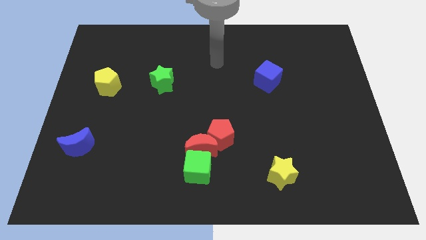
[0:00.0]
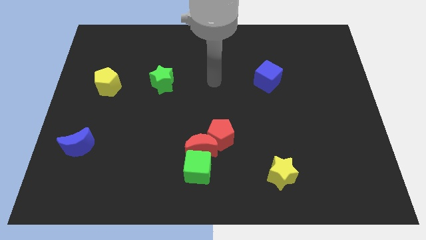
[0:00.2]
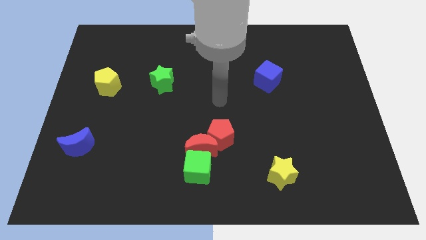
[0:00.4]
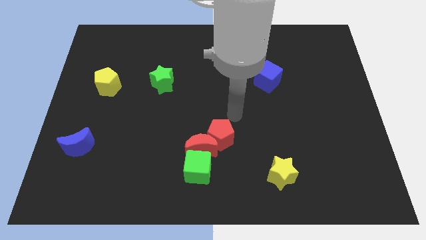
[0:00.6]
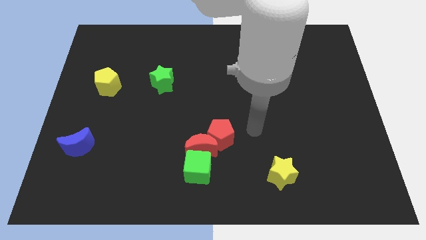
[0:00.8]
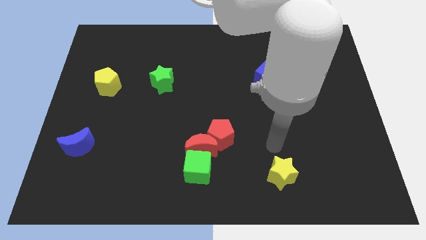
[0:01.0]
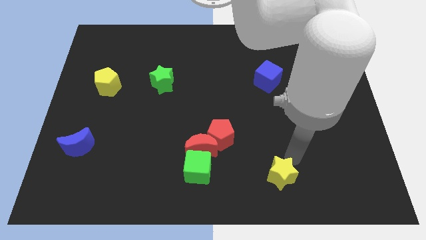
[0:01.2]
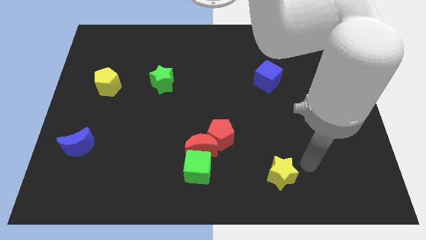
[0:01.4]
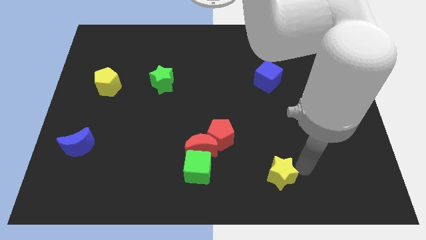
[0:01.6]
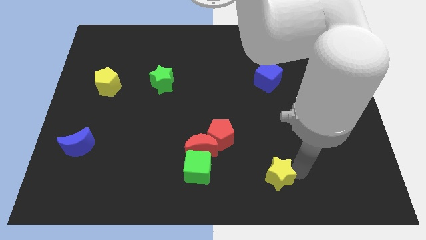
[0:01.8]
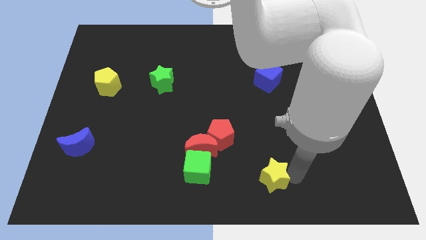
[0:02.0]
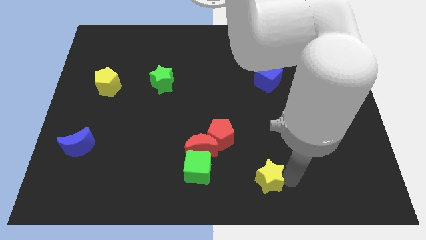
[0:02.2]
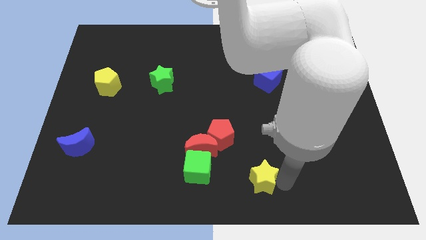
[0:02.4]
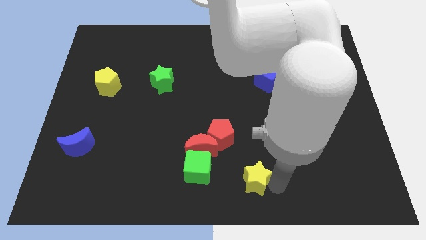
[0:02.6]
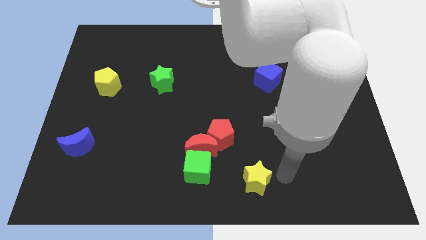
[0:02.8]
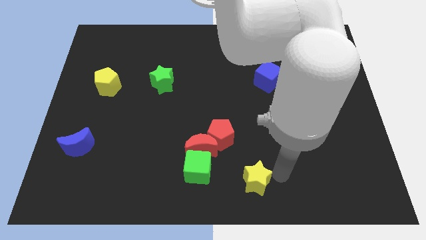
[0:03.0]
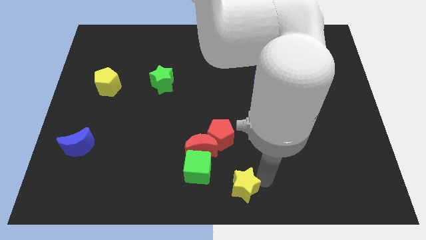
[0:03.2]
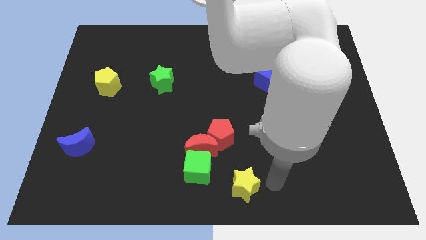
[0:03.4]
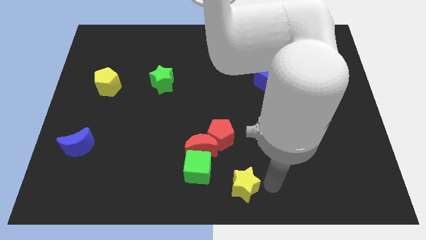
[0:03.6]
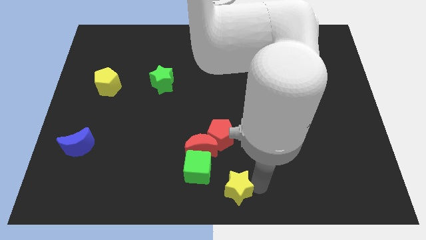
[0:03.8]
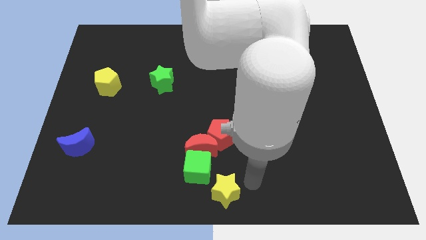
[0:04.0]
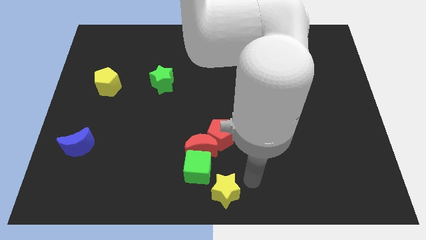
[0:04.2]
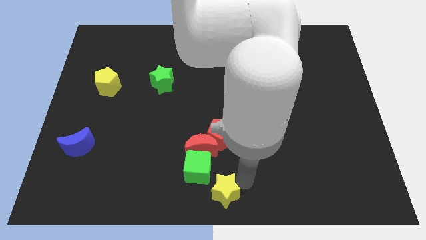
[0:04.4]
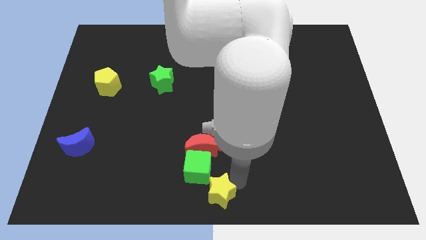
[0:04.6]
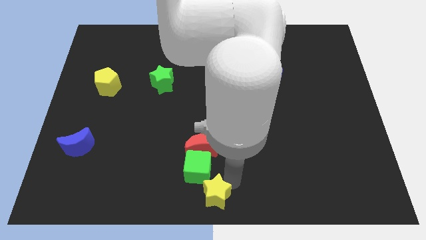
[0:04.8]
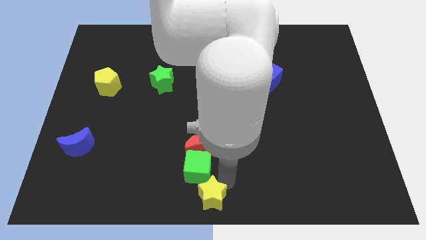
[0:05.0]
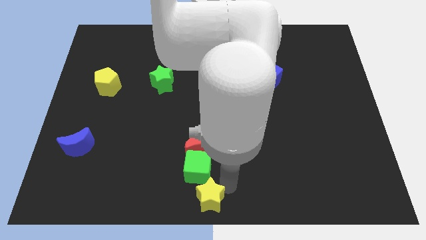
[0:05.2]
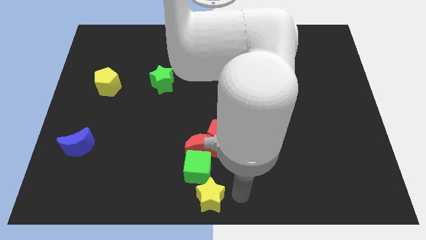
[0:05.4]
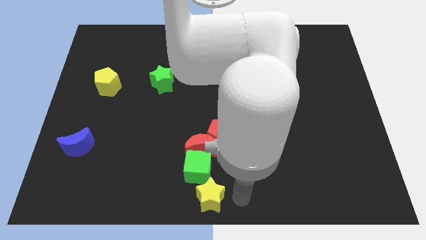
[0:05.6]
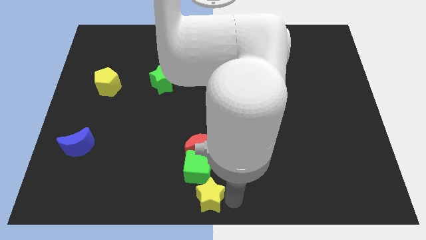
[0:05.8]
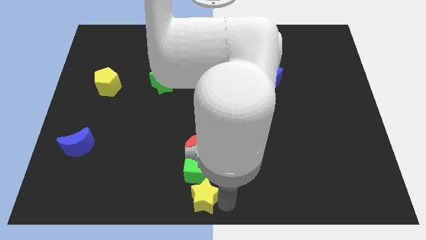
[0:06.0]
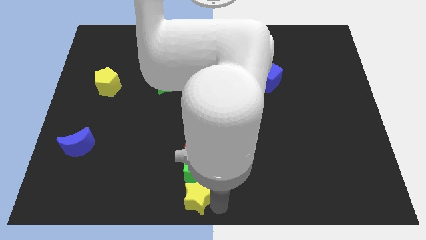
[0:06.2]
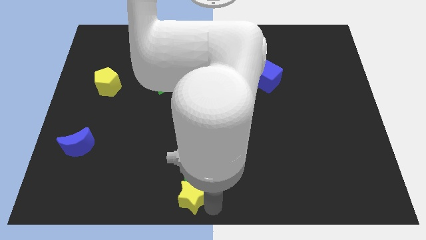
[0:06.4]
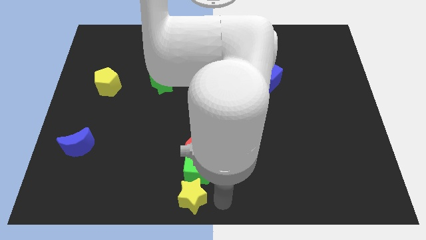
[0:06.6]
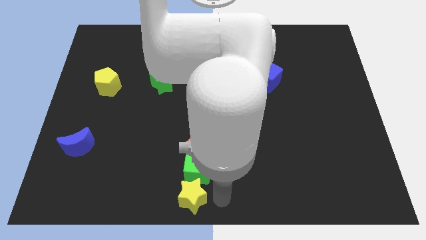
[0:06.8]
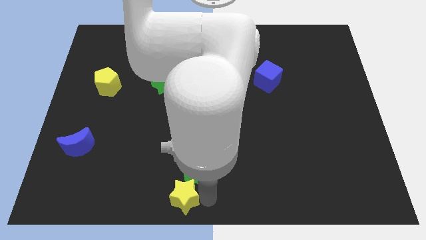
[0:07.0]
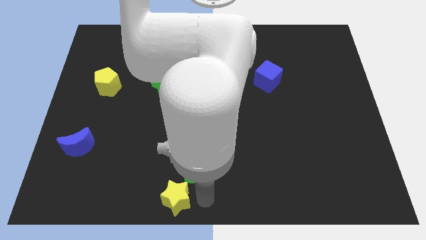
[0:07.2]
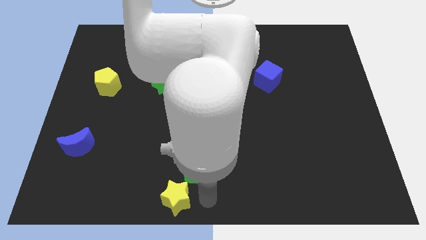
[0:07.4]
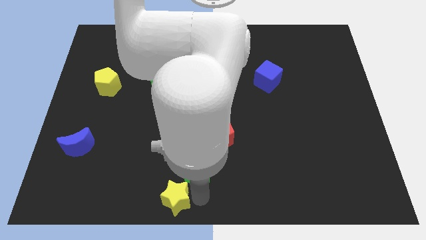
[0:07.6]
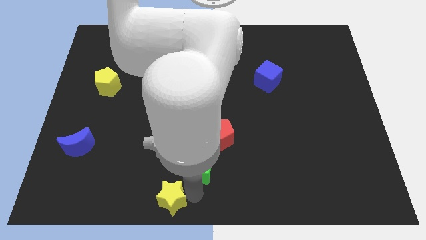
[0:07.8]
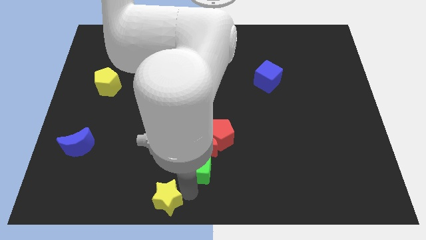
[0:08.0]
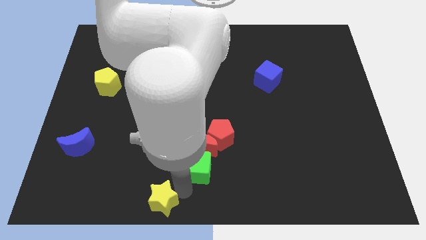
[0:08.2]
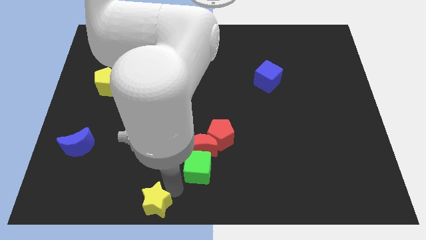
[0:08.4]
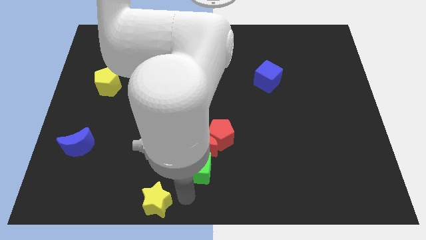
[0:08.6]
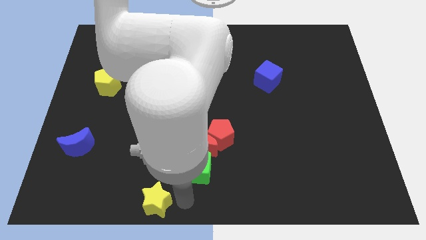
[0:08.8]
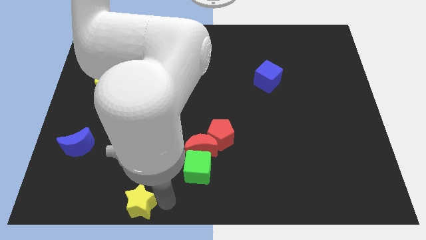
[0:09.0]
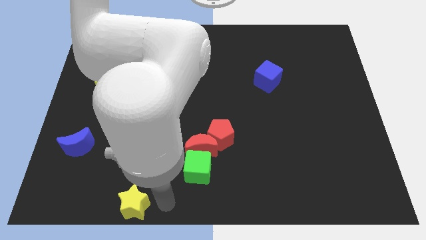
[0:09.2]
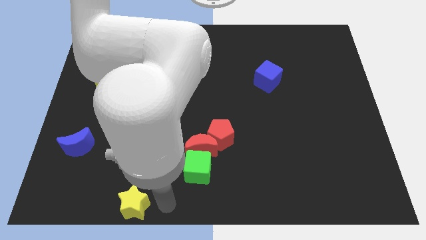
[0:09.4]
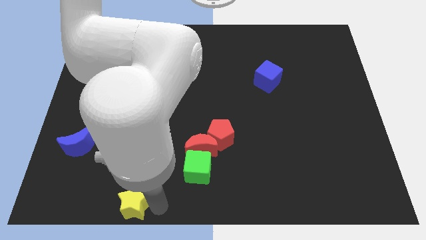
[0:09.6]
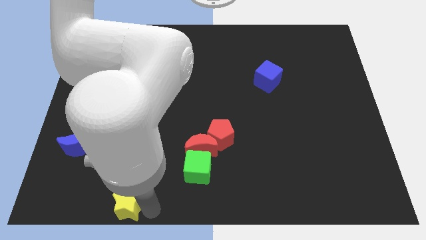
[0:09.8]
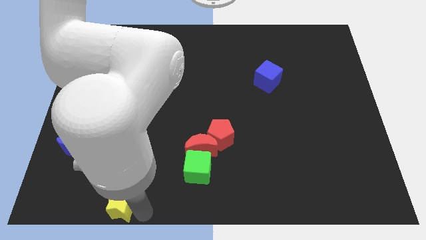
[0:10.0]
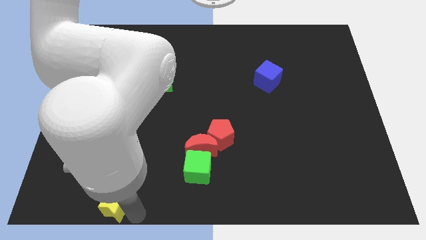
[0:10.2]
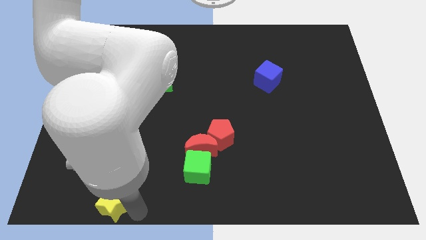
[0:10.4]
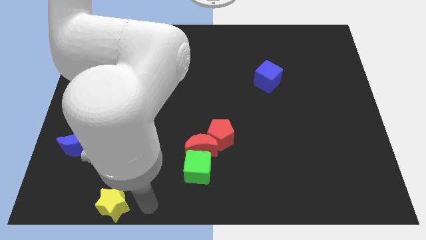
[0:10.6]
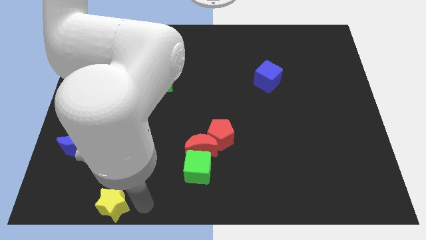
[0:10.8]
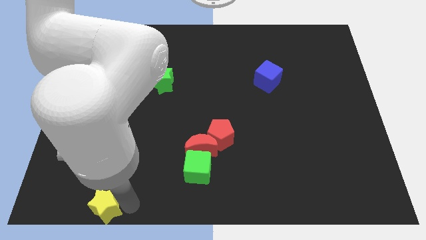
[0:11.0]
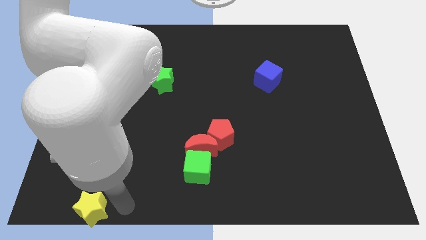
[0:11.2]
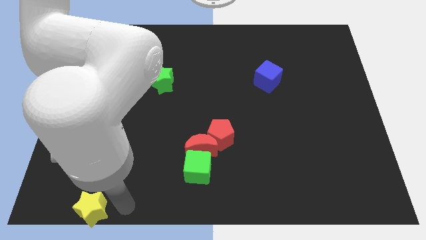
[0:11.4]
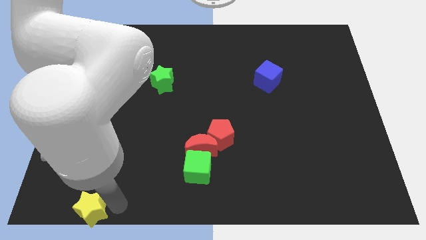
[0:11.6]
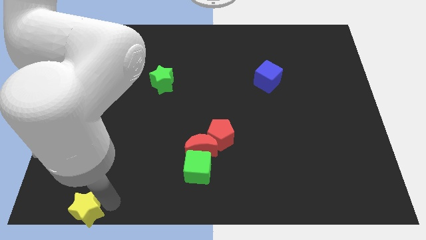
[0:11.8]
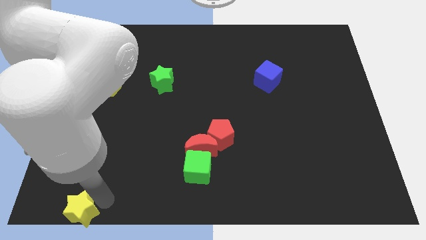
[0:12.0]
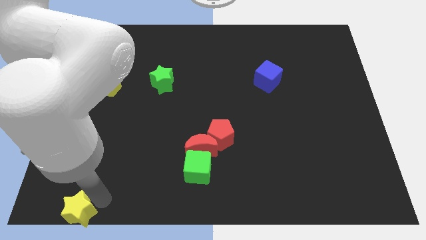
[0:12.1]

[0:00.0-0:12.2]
slide the yellow star to the bottom left corner

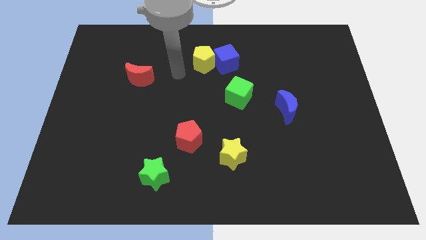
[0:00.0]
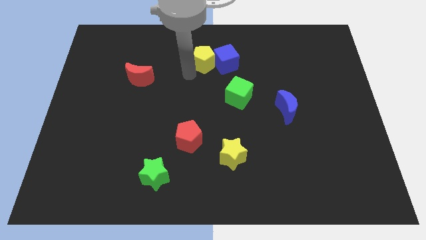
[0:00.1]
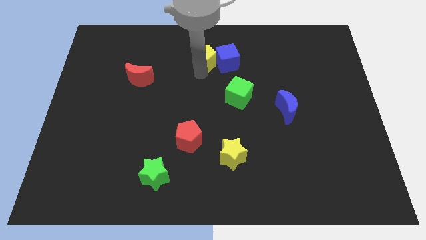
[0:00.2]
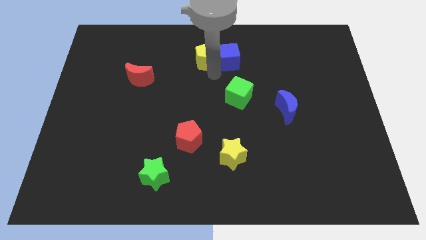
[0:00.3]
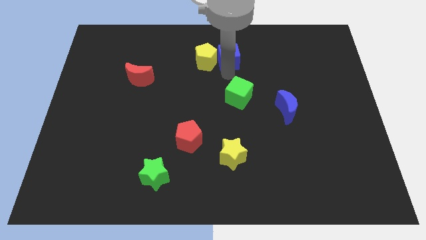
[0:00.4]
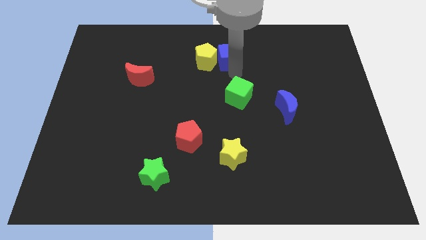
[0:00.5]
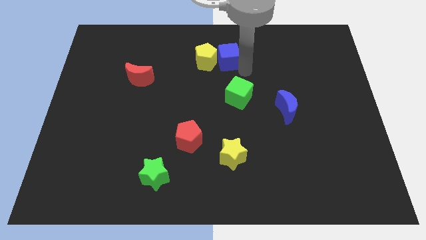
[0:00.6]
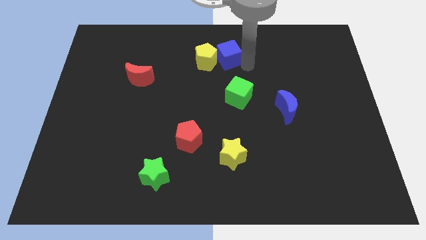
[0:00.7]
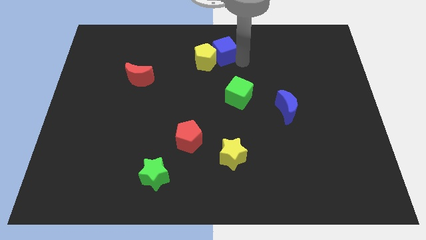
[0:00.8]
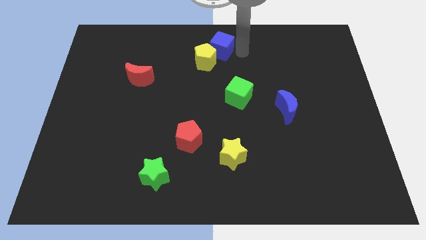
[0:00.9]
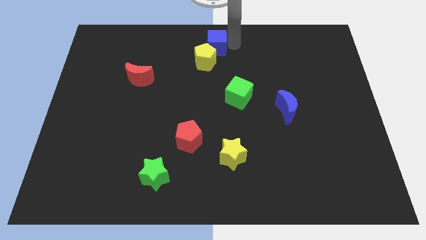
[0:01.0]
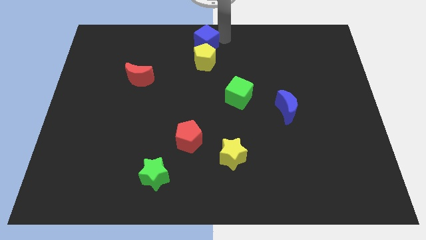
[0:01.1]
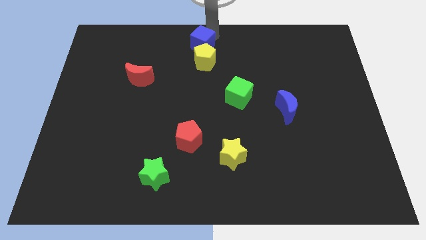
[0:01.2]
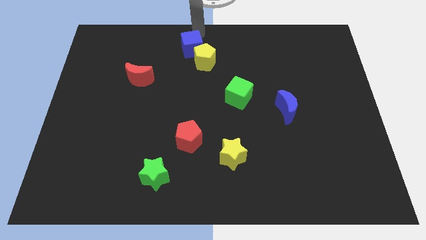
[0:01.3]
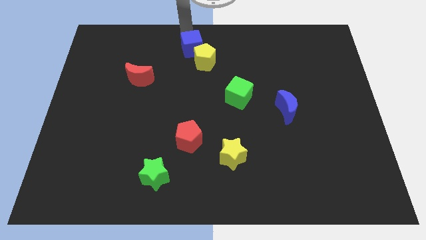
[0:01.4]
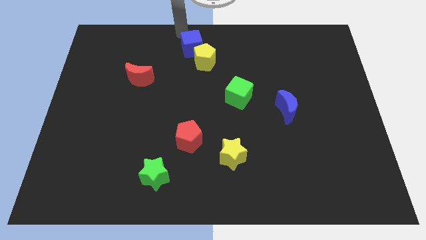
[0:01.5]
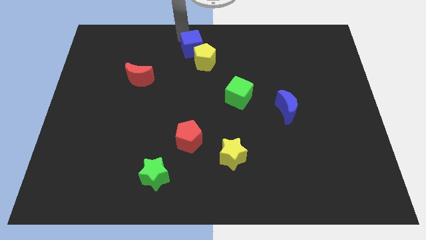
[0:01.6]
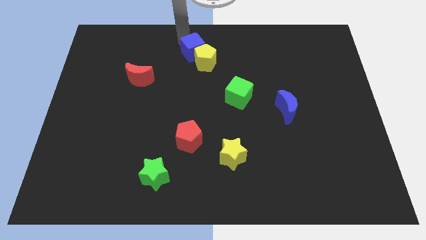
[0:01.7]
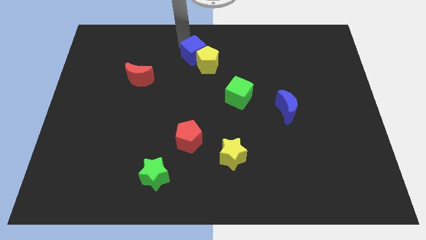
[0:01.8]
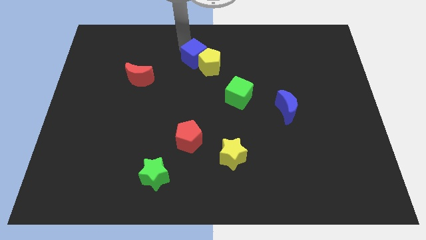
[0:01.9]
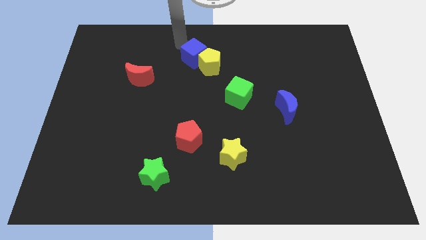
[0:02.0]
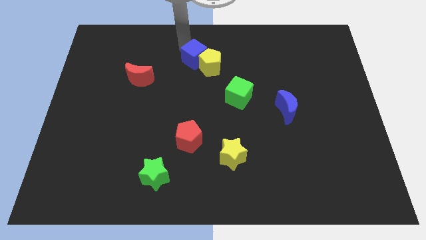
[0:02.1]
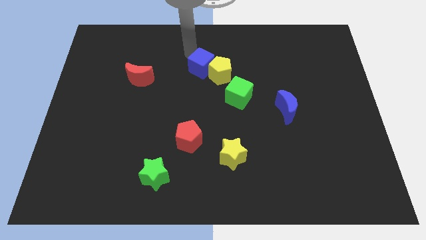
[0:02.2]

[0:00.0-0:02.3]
slide the blue cube to the center of the board
